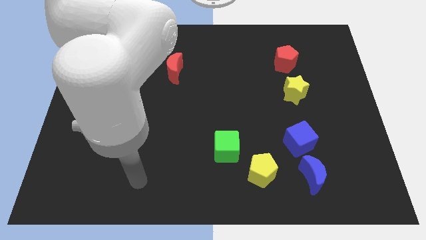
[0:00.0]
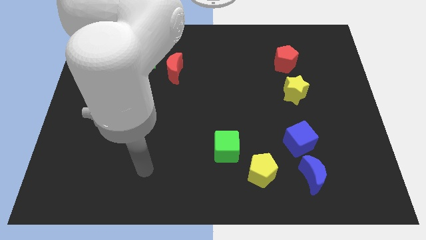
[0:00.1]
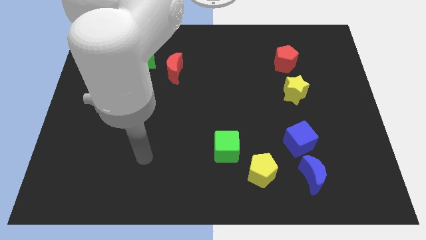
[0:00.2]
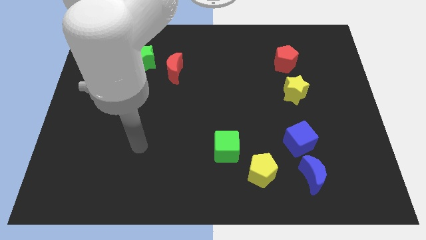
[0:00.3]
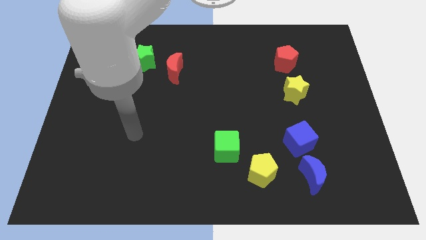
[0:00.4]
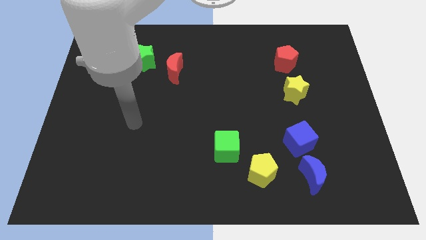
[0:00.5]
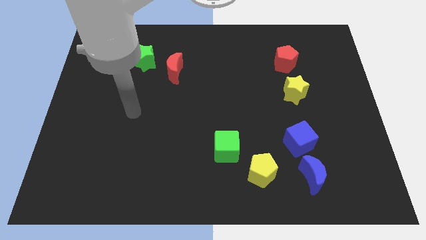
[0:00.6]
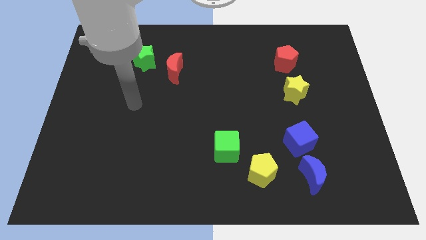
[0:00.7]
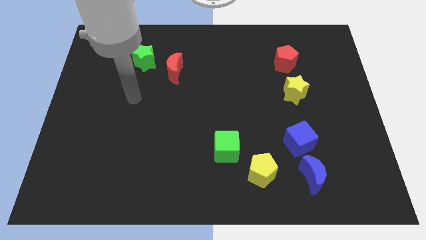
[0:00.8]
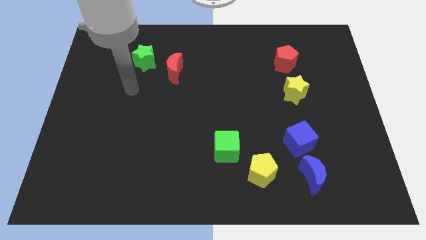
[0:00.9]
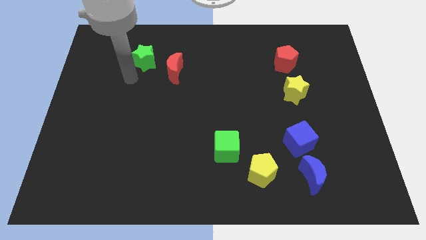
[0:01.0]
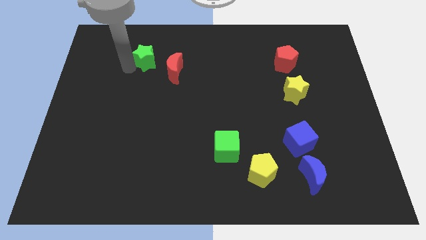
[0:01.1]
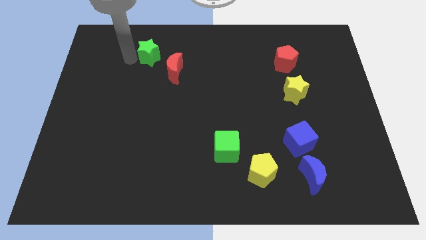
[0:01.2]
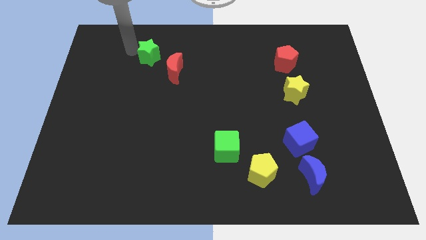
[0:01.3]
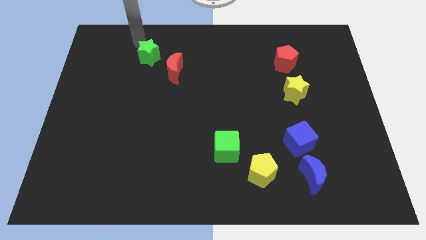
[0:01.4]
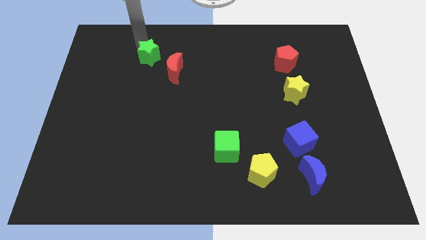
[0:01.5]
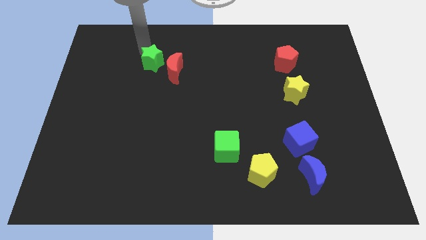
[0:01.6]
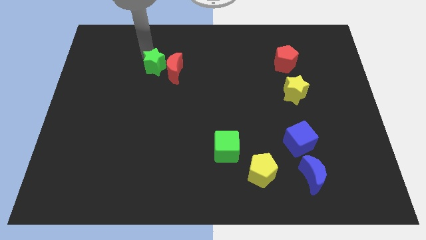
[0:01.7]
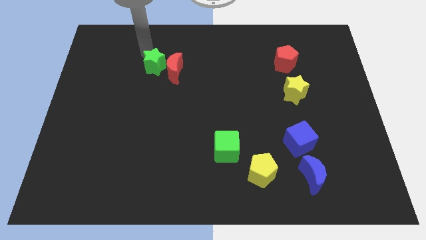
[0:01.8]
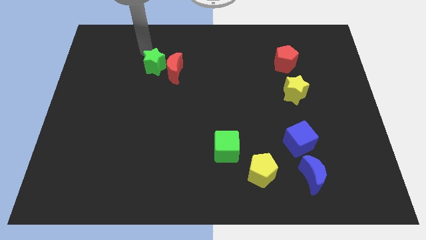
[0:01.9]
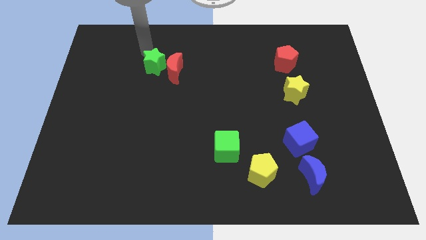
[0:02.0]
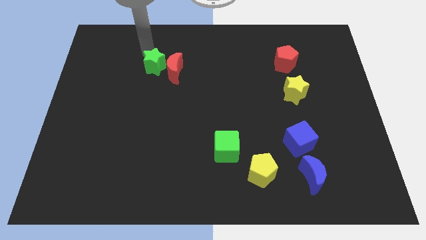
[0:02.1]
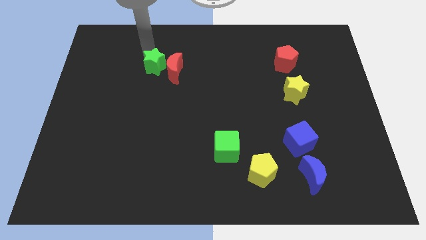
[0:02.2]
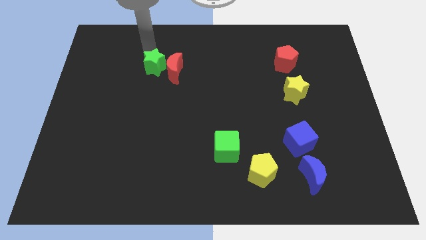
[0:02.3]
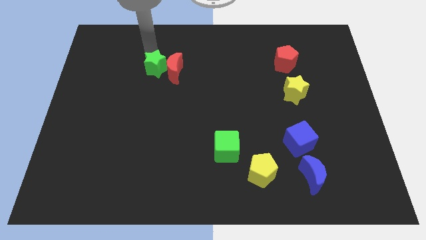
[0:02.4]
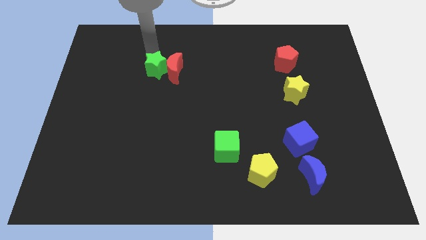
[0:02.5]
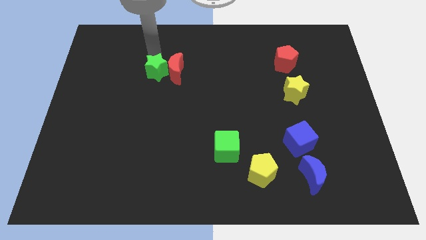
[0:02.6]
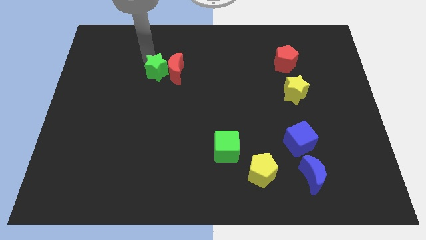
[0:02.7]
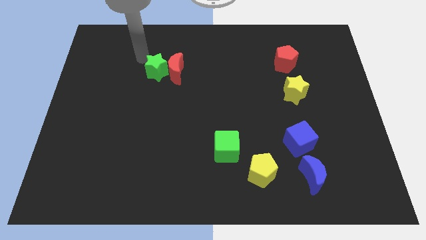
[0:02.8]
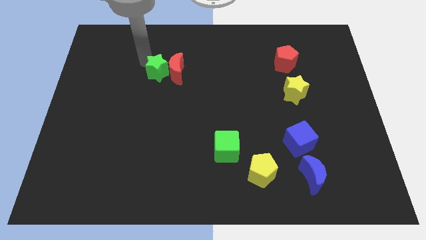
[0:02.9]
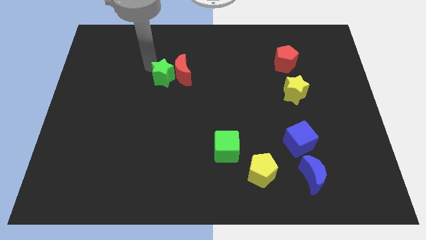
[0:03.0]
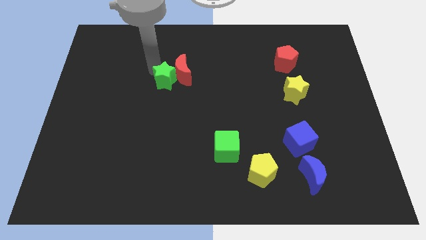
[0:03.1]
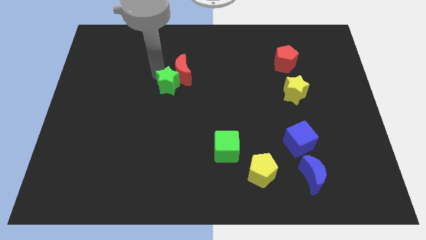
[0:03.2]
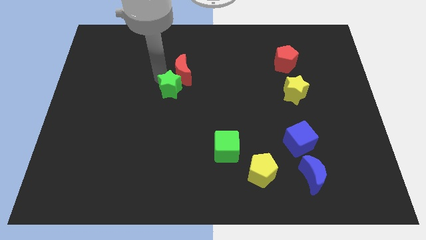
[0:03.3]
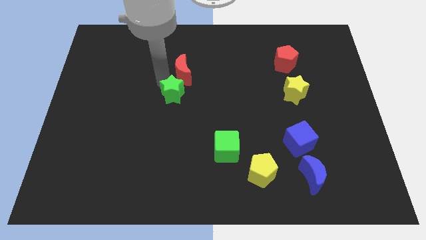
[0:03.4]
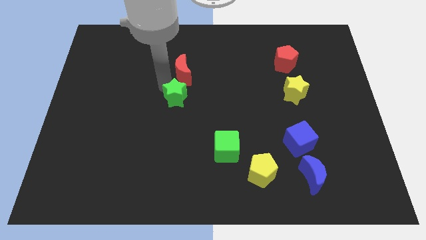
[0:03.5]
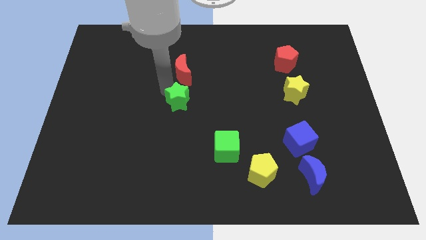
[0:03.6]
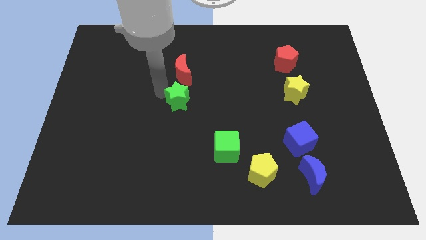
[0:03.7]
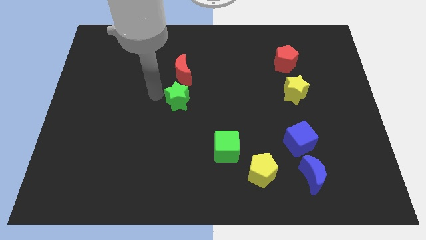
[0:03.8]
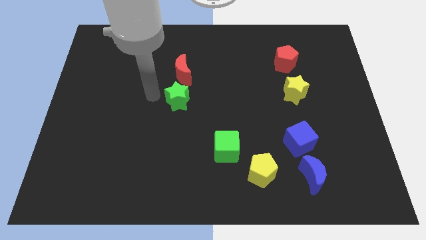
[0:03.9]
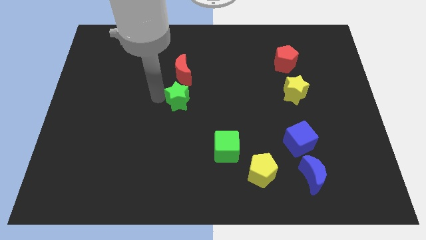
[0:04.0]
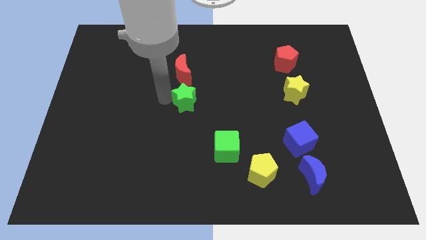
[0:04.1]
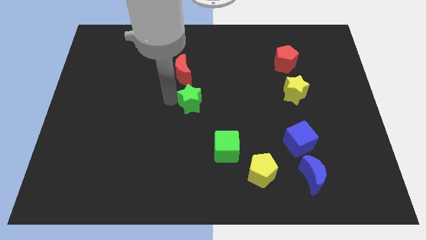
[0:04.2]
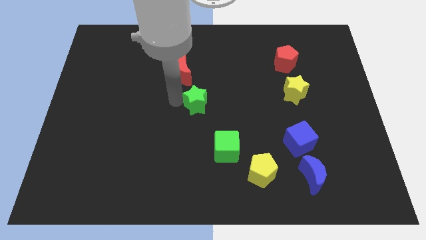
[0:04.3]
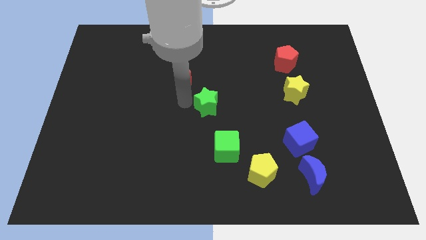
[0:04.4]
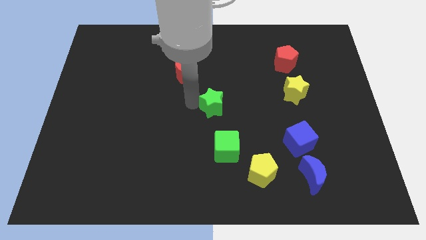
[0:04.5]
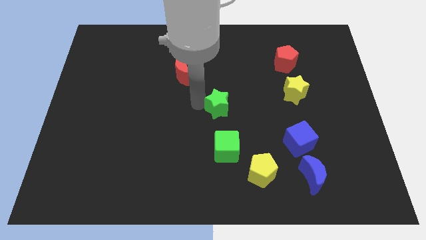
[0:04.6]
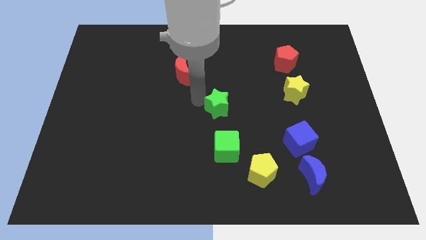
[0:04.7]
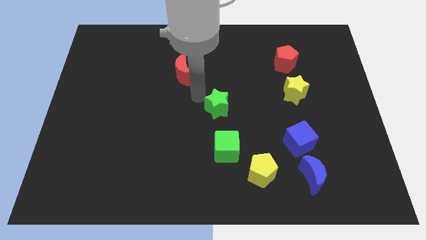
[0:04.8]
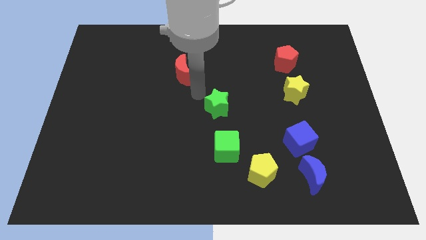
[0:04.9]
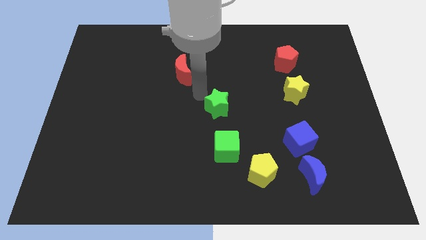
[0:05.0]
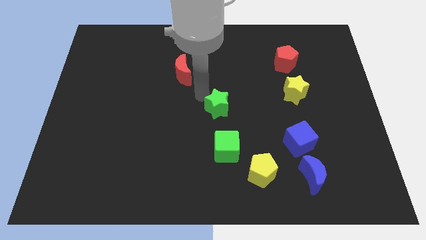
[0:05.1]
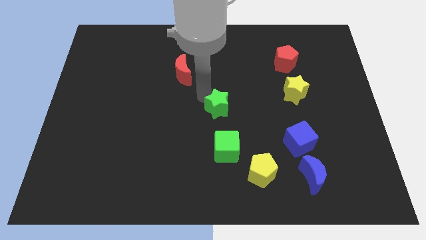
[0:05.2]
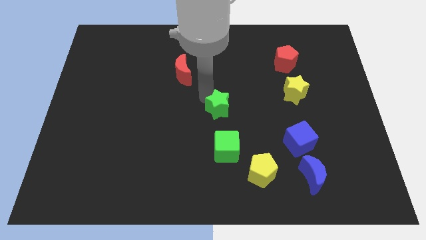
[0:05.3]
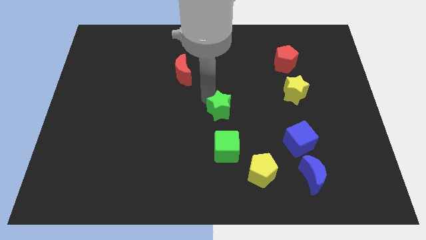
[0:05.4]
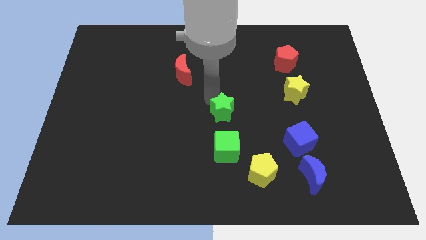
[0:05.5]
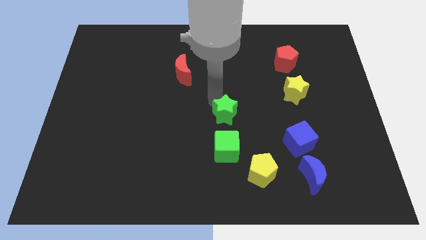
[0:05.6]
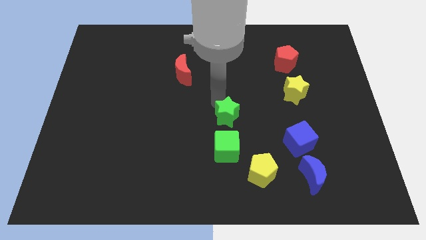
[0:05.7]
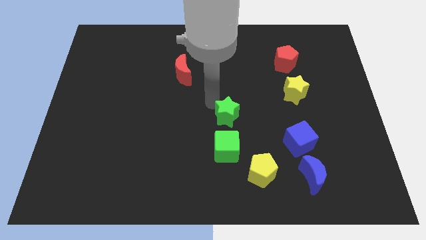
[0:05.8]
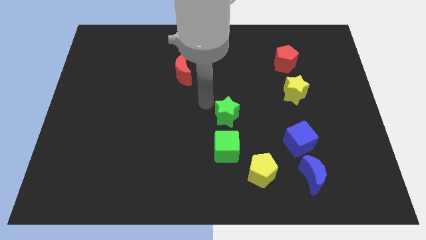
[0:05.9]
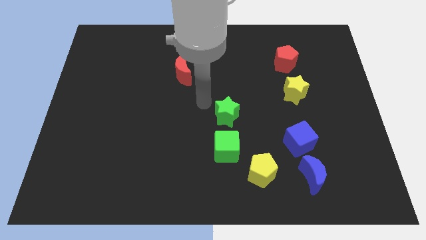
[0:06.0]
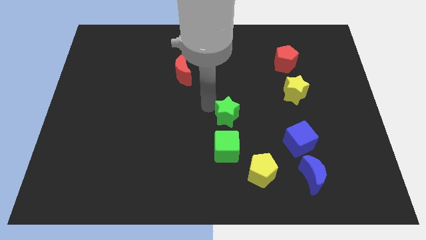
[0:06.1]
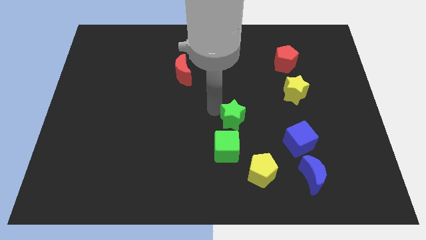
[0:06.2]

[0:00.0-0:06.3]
move the green star to the top right side of the green cube

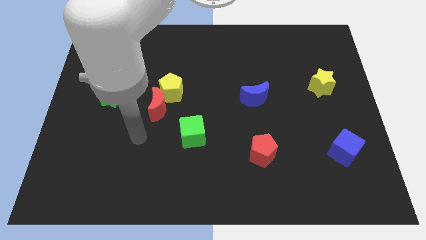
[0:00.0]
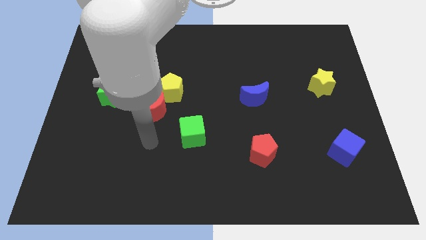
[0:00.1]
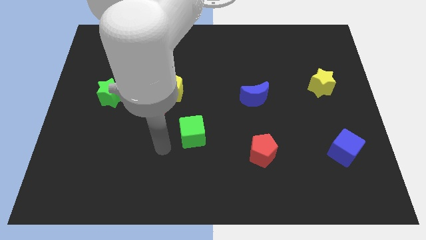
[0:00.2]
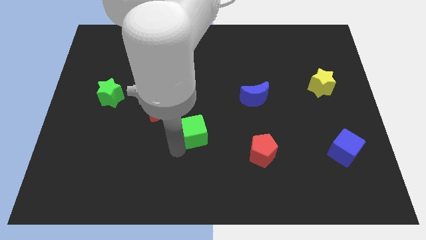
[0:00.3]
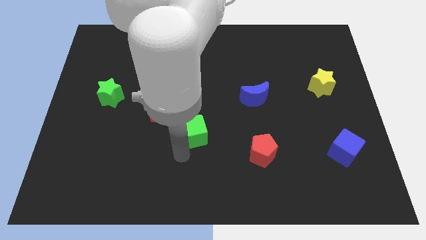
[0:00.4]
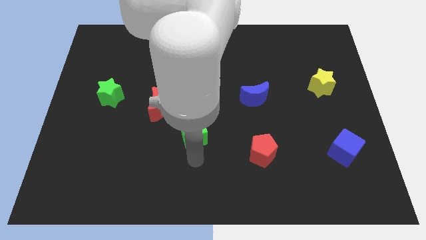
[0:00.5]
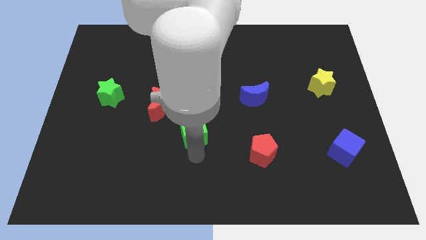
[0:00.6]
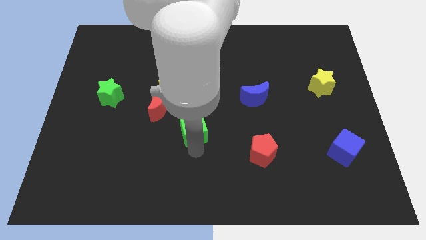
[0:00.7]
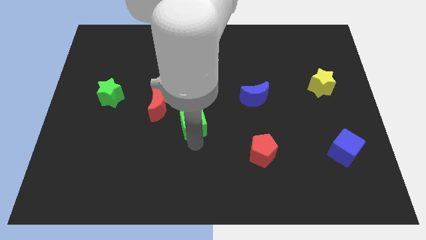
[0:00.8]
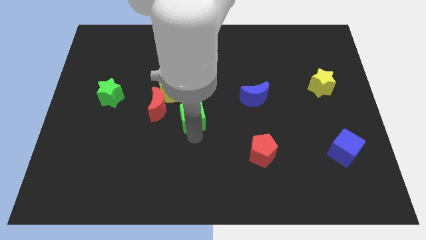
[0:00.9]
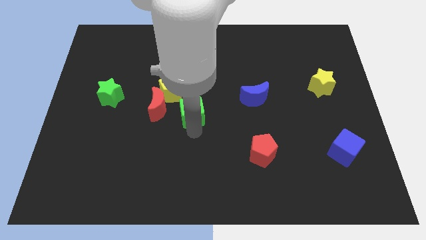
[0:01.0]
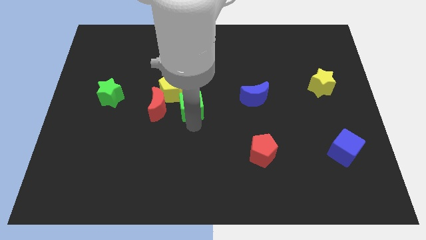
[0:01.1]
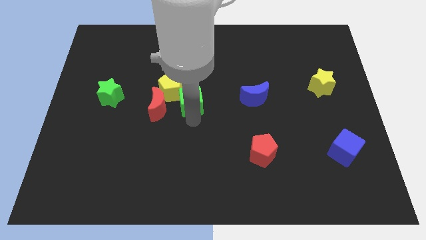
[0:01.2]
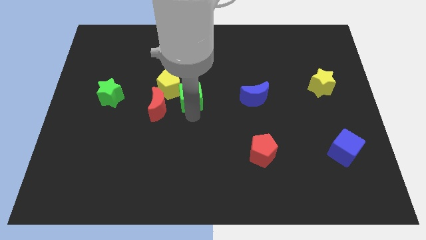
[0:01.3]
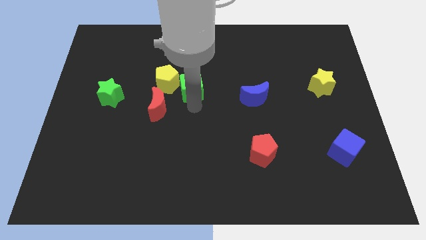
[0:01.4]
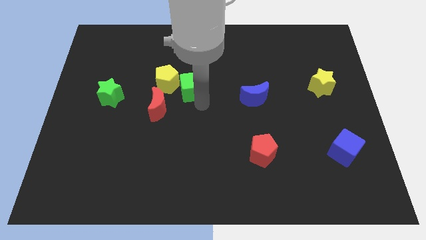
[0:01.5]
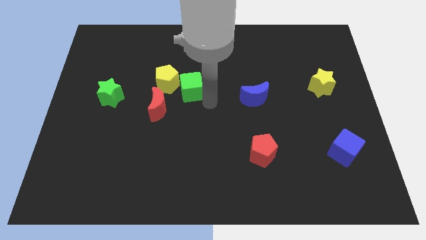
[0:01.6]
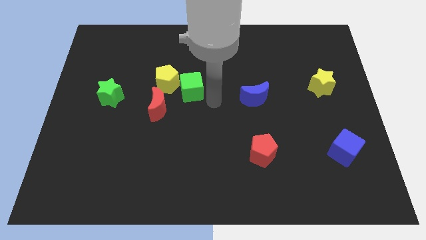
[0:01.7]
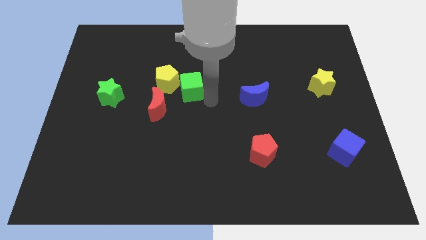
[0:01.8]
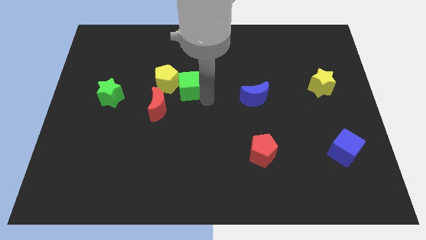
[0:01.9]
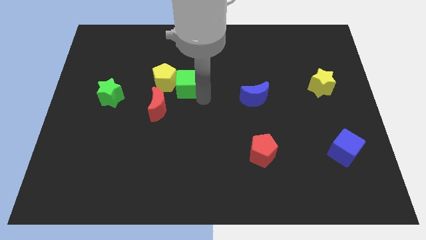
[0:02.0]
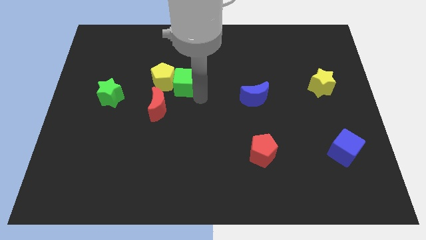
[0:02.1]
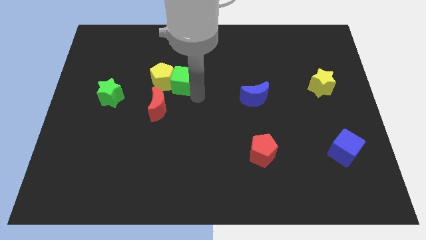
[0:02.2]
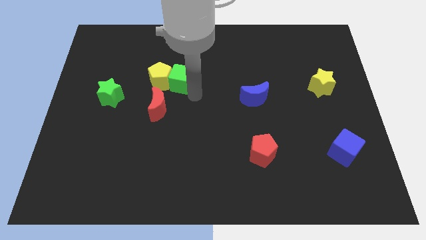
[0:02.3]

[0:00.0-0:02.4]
move the green cube above the red moon
